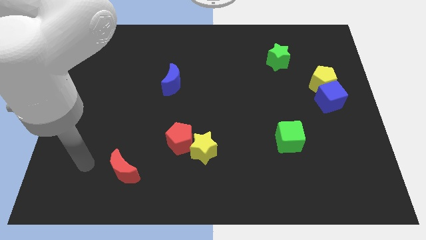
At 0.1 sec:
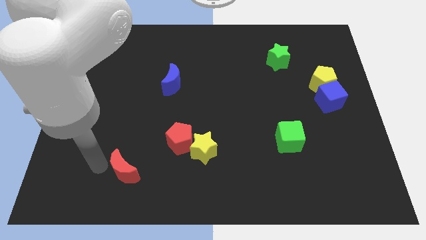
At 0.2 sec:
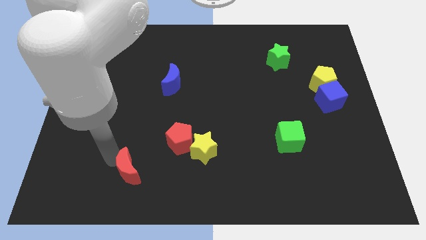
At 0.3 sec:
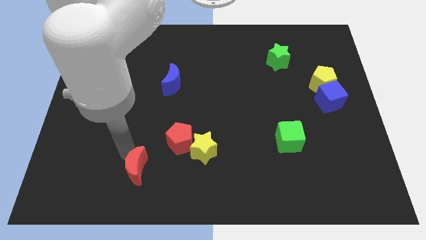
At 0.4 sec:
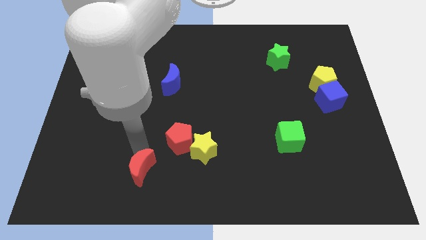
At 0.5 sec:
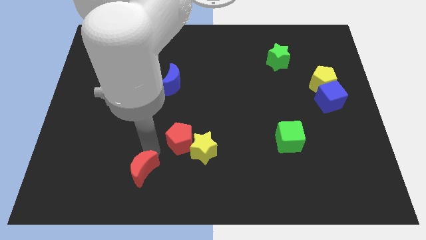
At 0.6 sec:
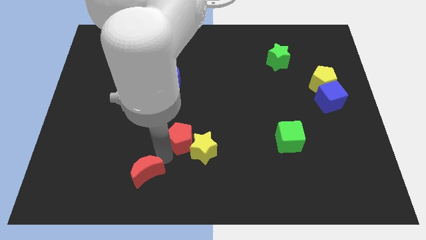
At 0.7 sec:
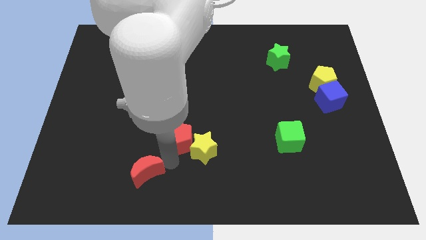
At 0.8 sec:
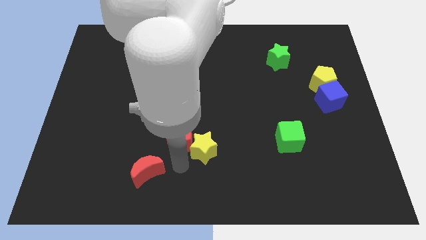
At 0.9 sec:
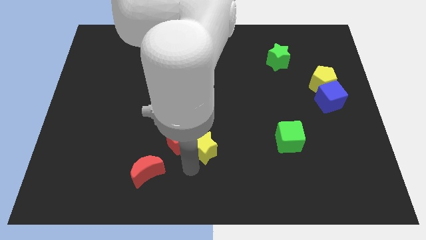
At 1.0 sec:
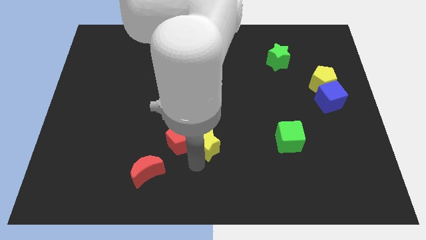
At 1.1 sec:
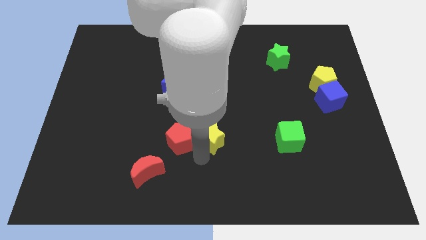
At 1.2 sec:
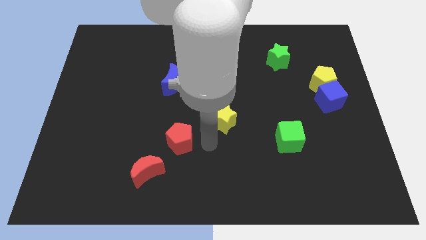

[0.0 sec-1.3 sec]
move the red pentagon away from the yellow star

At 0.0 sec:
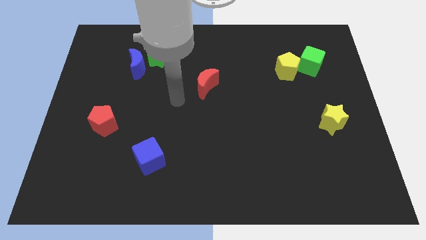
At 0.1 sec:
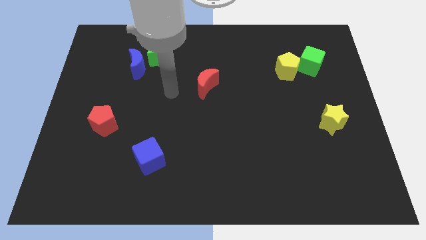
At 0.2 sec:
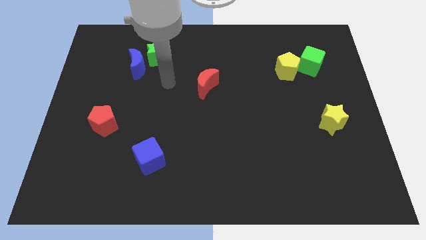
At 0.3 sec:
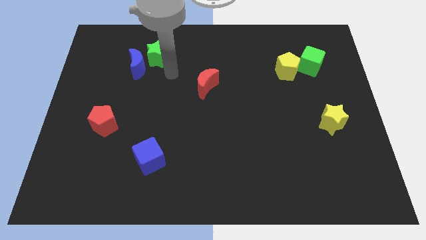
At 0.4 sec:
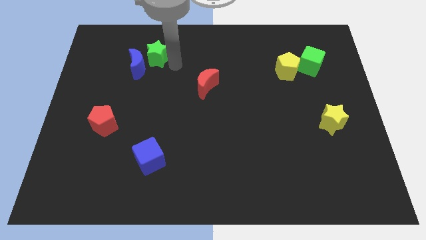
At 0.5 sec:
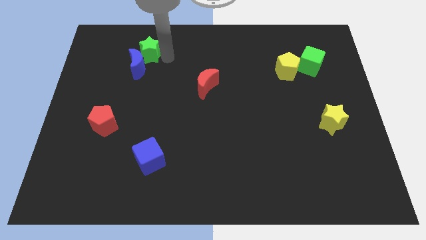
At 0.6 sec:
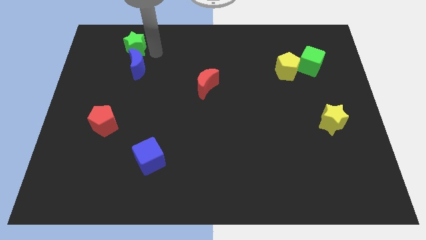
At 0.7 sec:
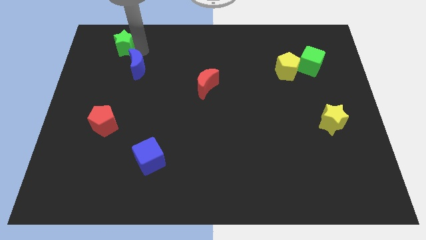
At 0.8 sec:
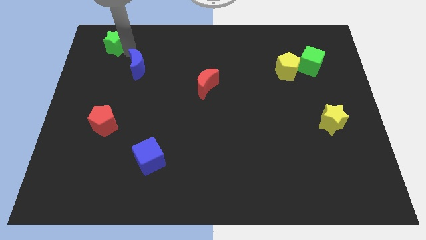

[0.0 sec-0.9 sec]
pull the blue moon apart from the green star

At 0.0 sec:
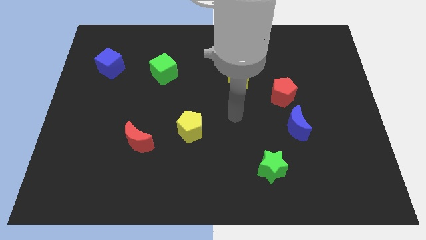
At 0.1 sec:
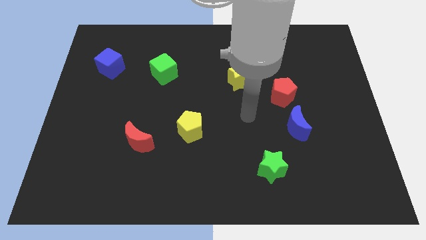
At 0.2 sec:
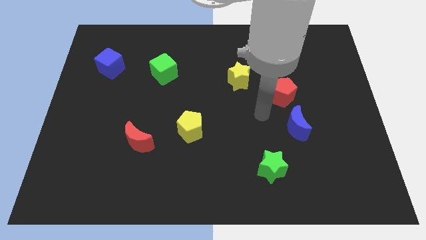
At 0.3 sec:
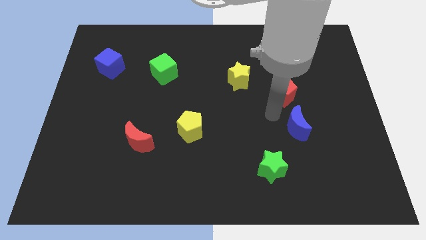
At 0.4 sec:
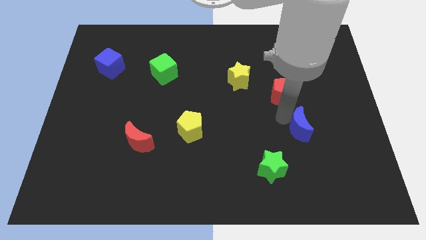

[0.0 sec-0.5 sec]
pull the red pentagon apart from the blue moon

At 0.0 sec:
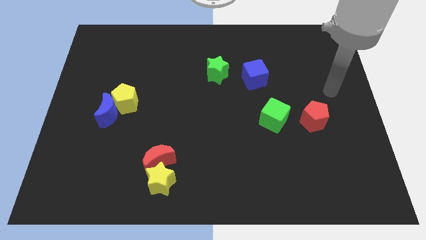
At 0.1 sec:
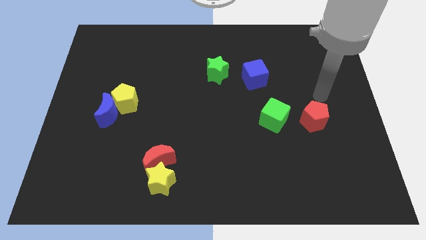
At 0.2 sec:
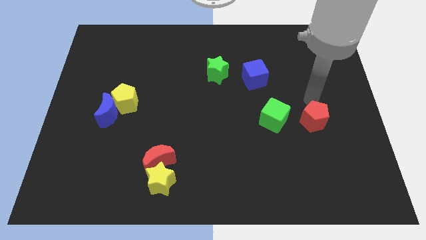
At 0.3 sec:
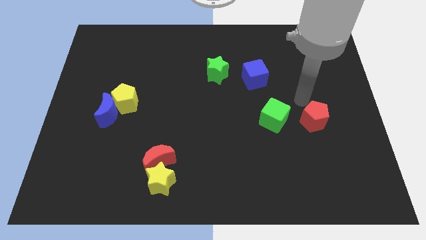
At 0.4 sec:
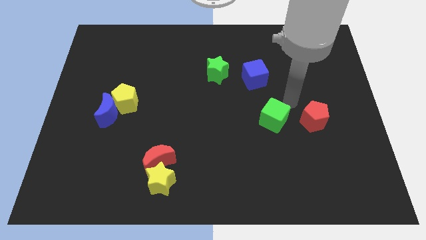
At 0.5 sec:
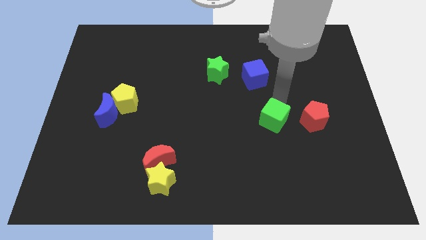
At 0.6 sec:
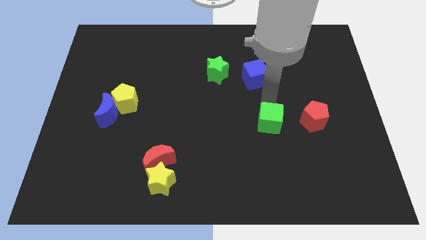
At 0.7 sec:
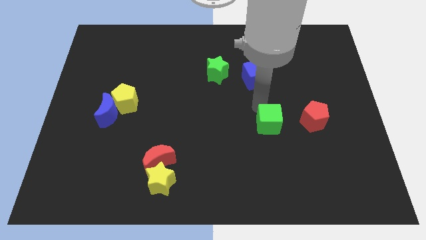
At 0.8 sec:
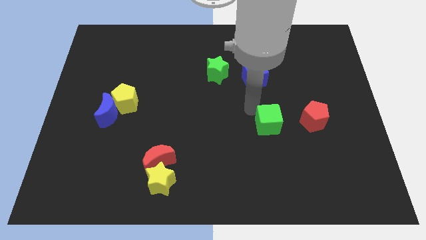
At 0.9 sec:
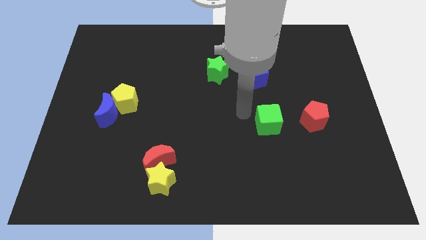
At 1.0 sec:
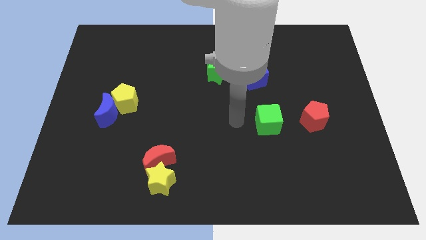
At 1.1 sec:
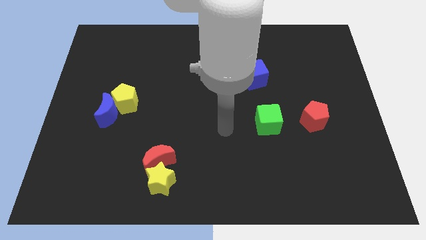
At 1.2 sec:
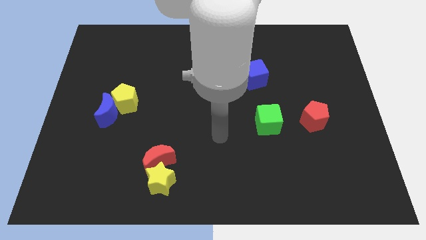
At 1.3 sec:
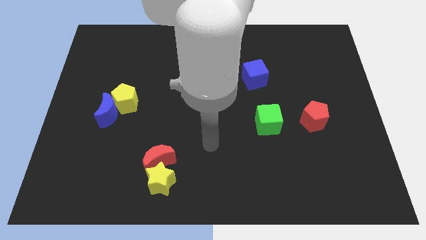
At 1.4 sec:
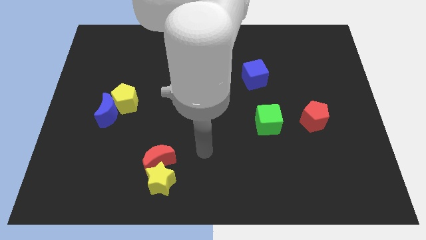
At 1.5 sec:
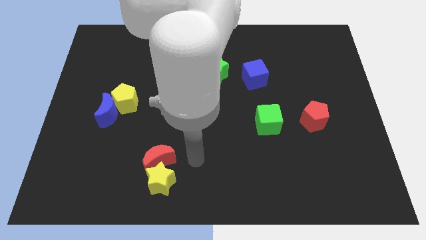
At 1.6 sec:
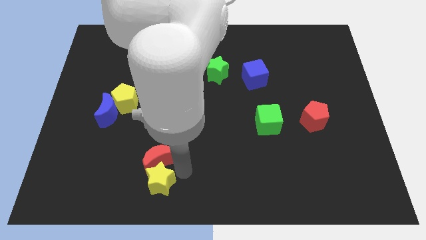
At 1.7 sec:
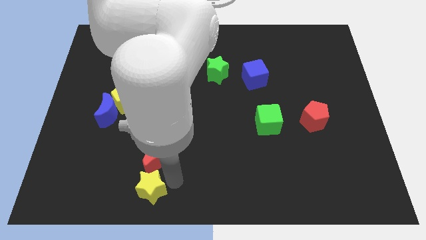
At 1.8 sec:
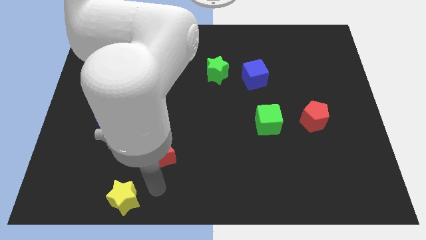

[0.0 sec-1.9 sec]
separate the red moon from the yellow star

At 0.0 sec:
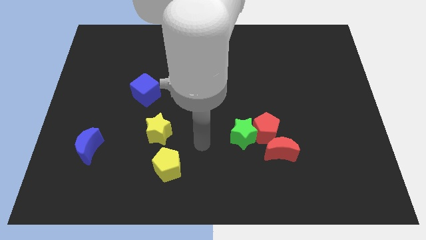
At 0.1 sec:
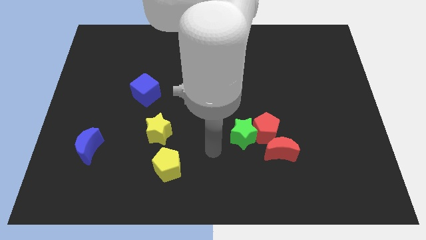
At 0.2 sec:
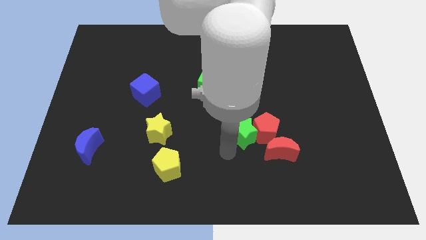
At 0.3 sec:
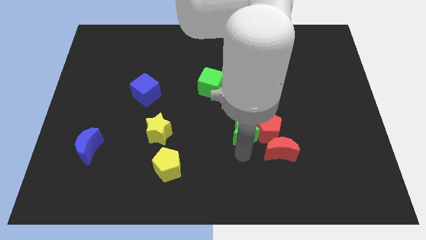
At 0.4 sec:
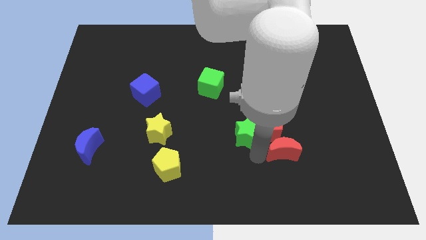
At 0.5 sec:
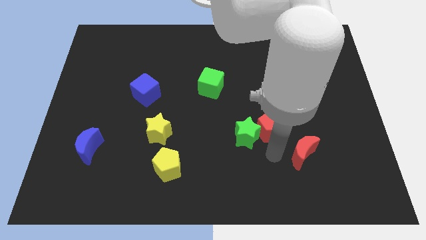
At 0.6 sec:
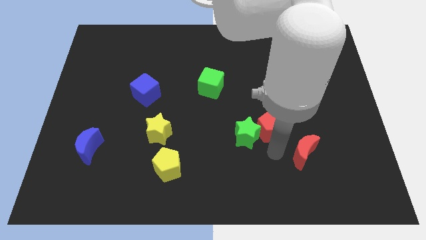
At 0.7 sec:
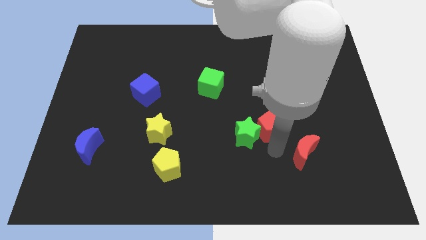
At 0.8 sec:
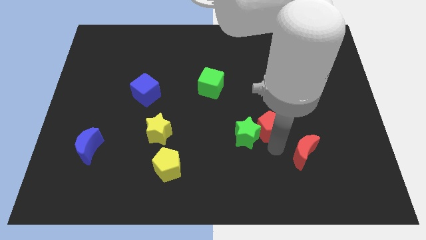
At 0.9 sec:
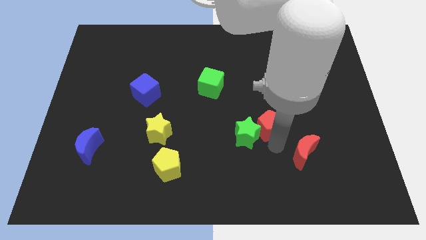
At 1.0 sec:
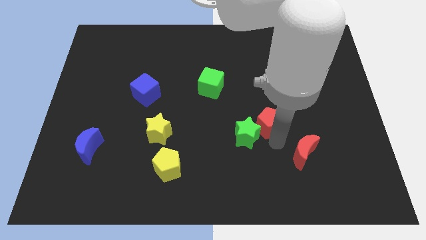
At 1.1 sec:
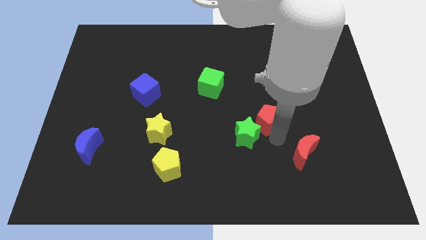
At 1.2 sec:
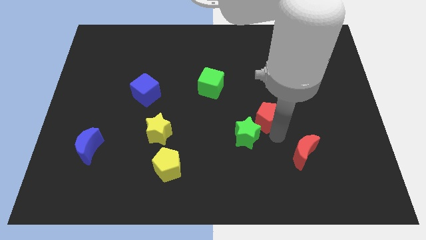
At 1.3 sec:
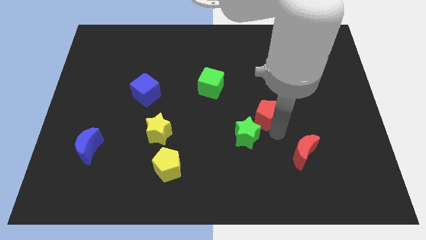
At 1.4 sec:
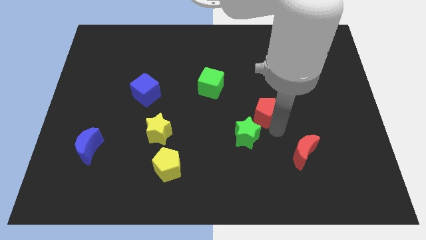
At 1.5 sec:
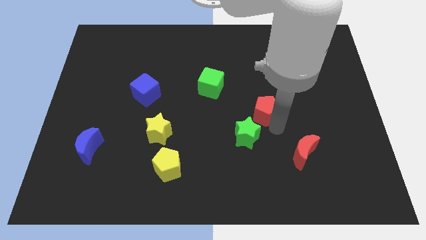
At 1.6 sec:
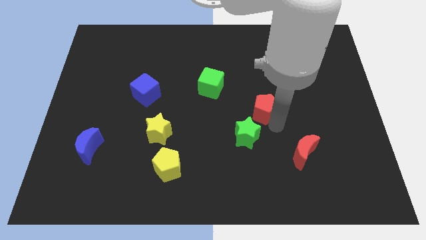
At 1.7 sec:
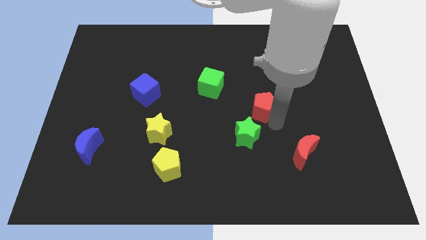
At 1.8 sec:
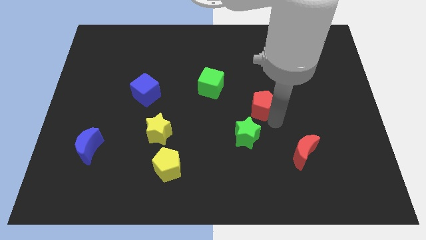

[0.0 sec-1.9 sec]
pull the red pentagon apart from the green star and red moon

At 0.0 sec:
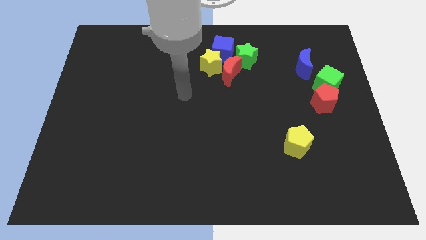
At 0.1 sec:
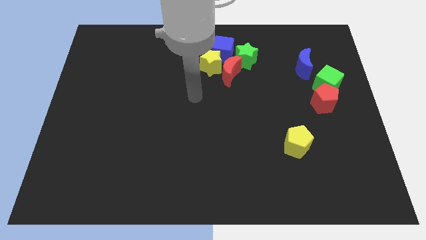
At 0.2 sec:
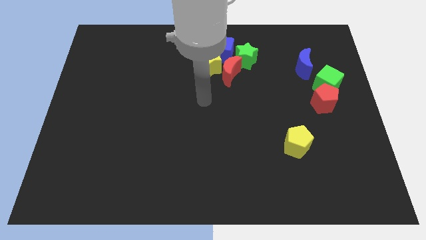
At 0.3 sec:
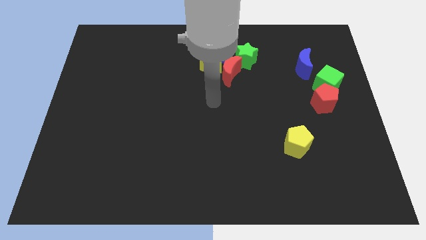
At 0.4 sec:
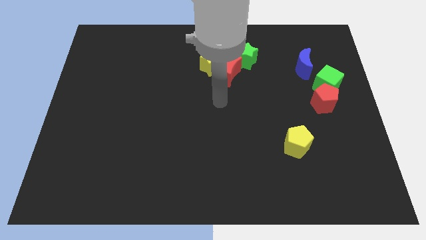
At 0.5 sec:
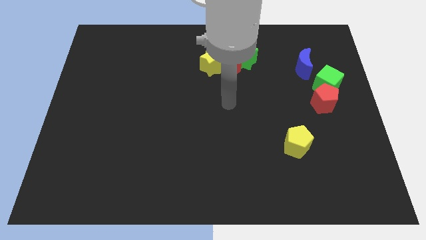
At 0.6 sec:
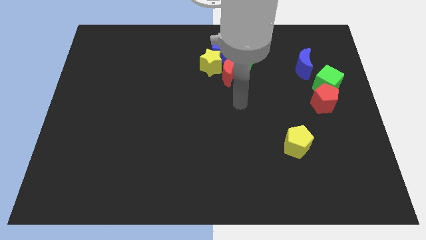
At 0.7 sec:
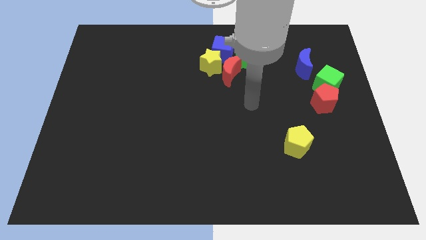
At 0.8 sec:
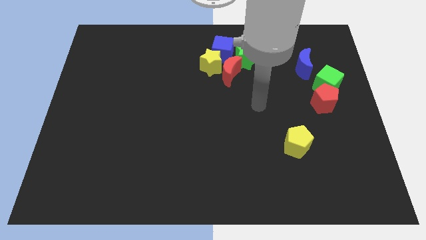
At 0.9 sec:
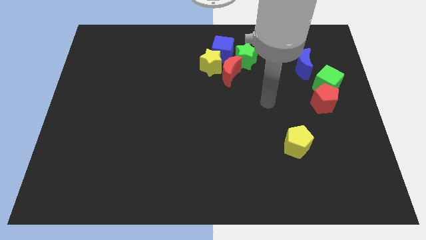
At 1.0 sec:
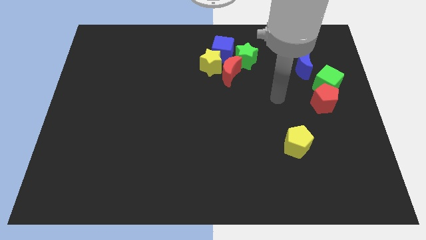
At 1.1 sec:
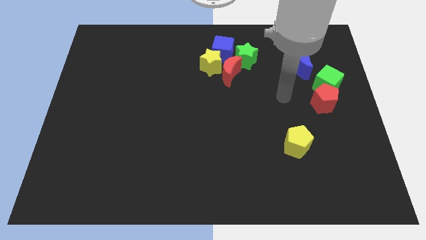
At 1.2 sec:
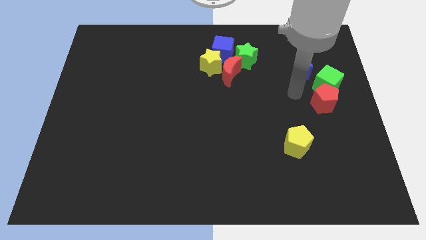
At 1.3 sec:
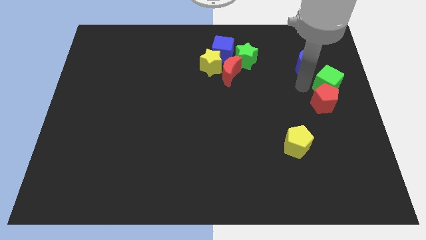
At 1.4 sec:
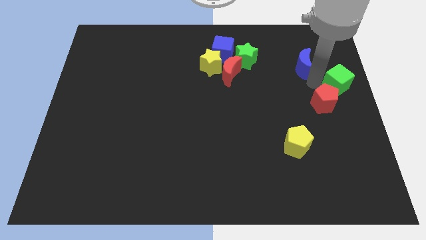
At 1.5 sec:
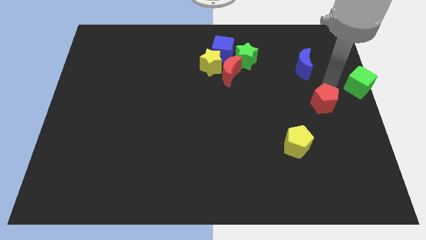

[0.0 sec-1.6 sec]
pull the red pentagon apart from the green cube

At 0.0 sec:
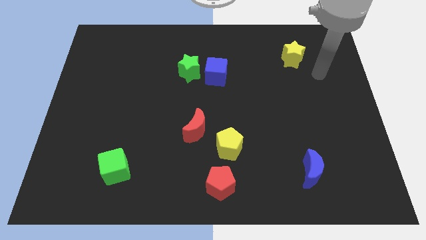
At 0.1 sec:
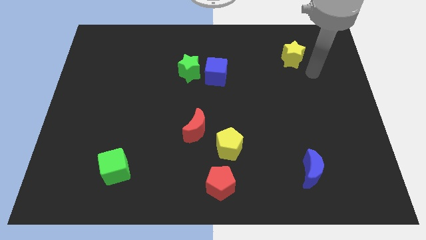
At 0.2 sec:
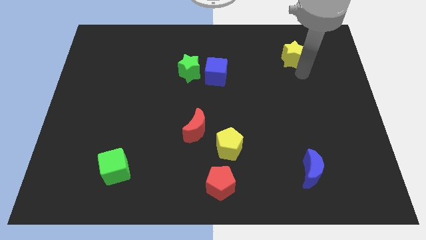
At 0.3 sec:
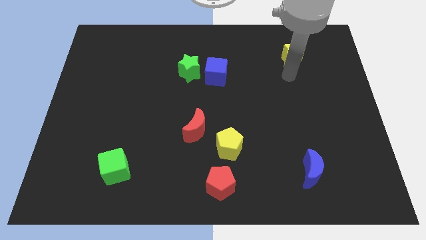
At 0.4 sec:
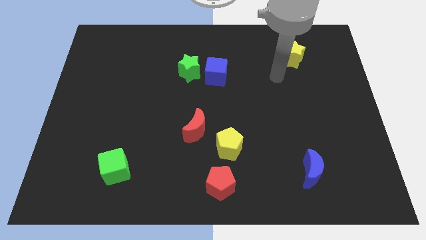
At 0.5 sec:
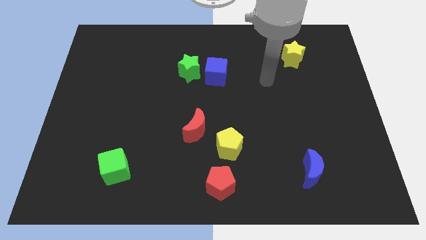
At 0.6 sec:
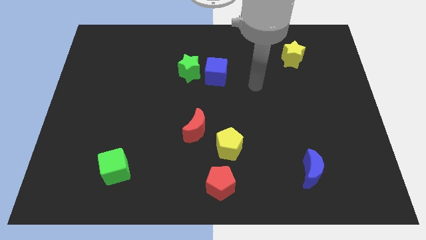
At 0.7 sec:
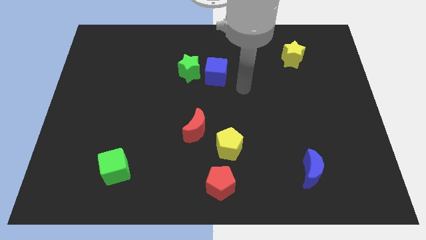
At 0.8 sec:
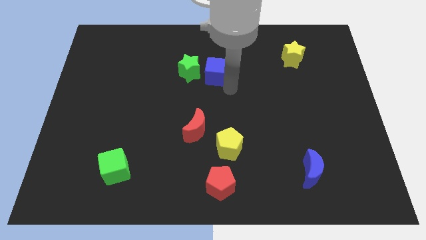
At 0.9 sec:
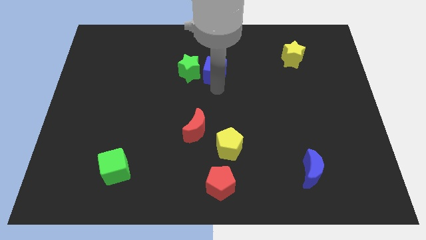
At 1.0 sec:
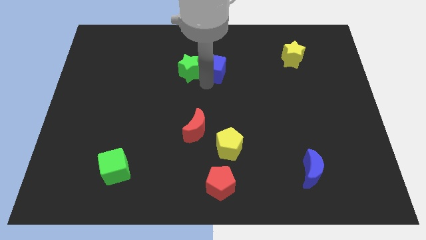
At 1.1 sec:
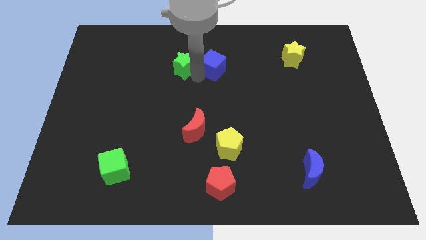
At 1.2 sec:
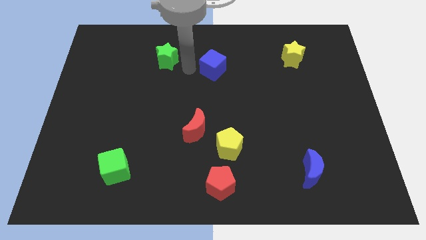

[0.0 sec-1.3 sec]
pull the blue cube apart from the green star
